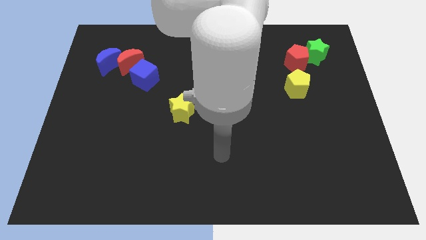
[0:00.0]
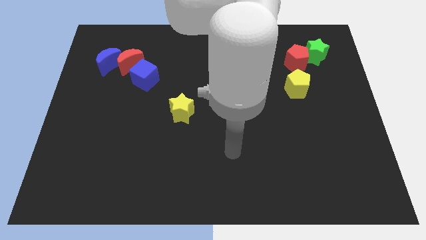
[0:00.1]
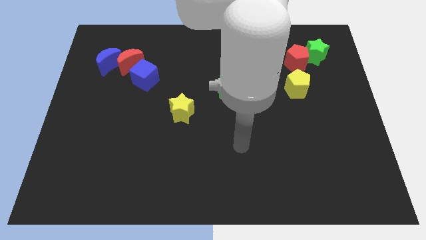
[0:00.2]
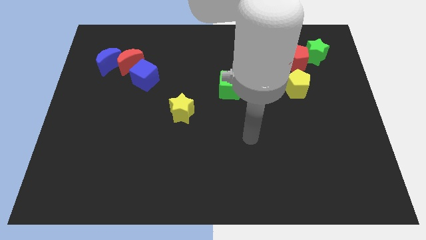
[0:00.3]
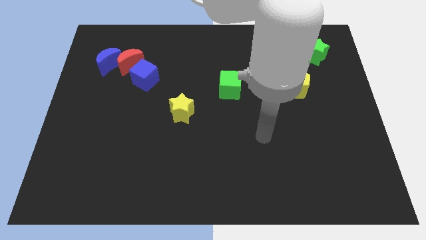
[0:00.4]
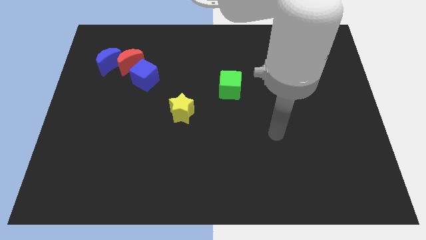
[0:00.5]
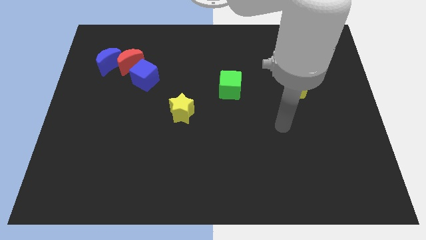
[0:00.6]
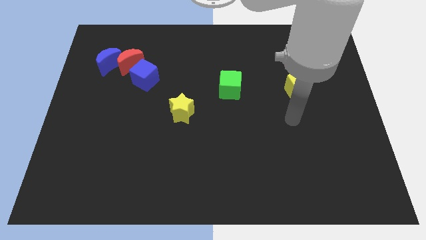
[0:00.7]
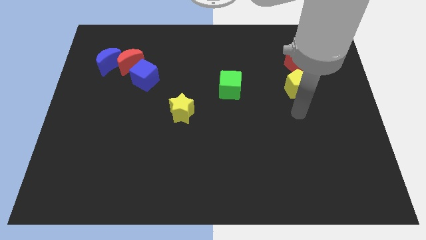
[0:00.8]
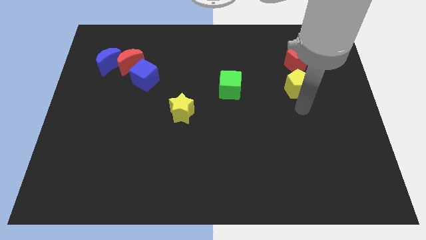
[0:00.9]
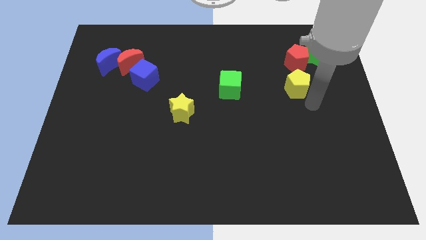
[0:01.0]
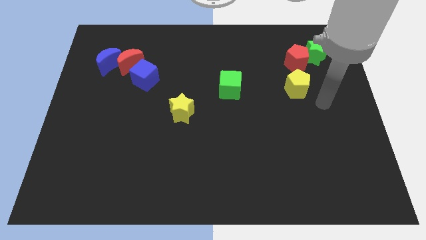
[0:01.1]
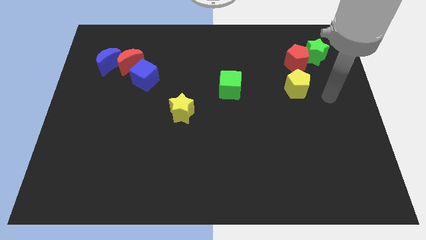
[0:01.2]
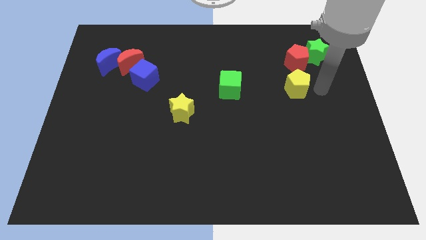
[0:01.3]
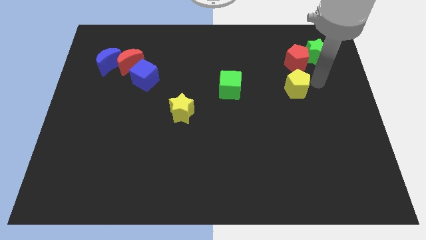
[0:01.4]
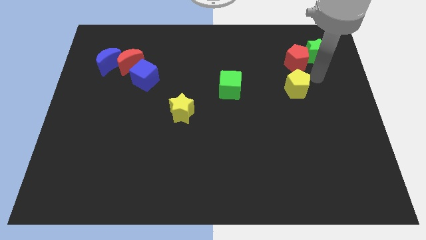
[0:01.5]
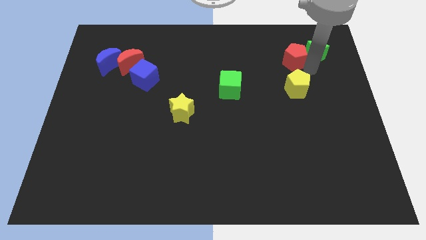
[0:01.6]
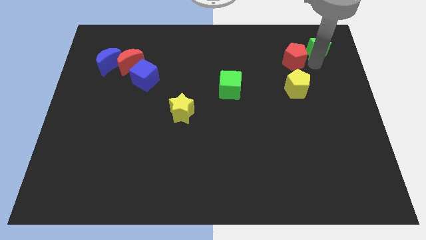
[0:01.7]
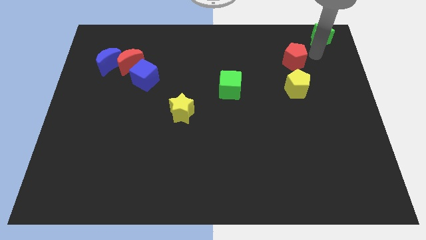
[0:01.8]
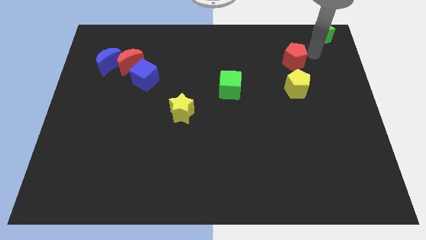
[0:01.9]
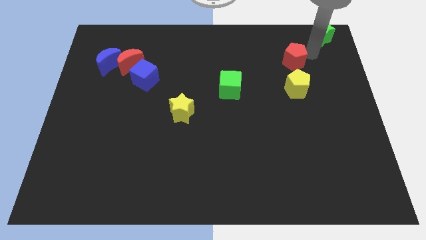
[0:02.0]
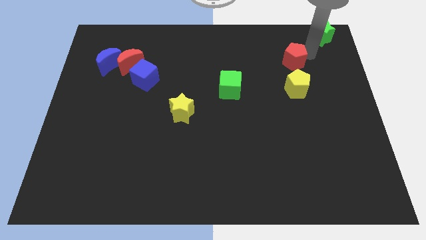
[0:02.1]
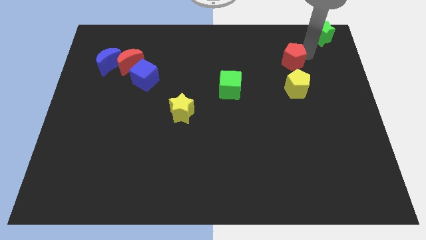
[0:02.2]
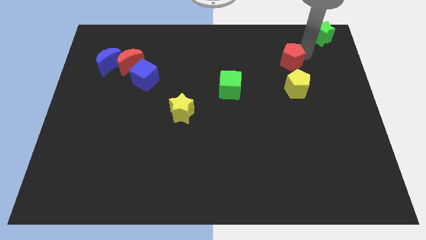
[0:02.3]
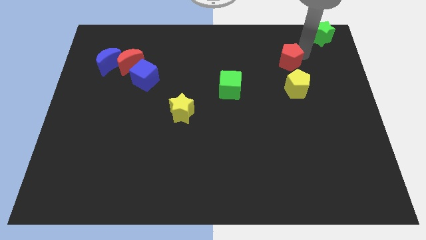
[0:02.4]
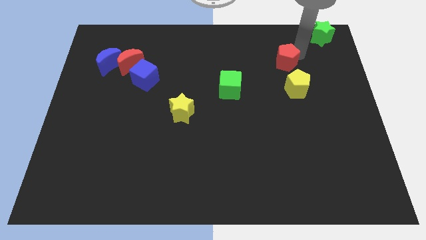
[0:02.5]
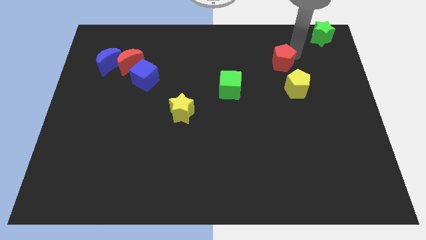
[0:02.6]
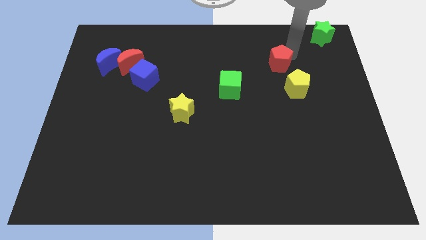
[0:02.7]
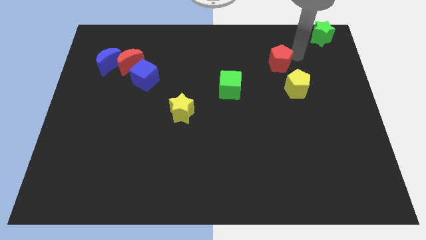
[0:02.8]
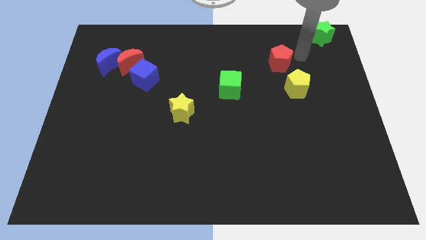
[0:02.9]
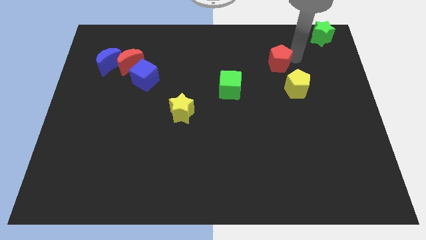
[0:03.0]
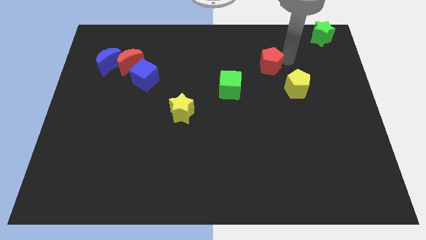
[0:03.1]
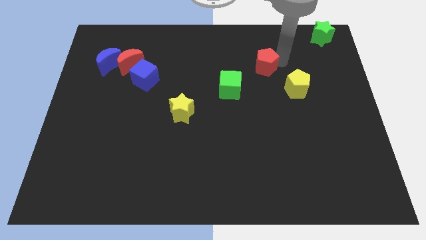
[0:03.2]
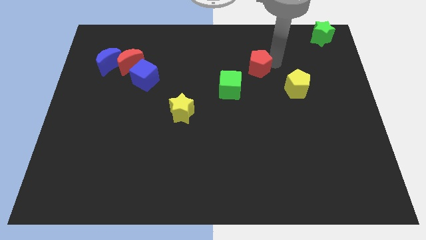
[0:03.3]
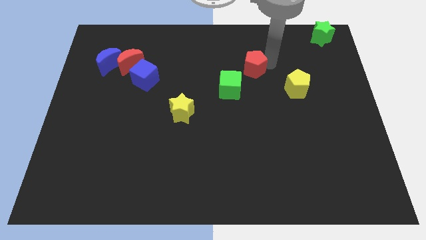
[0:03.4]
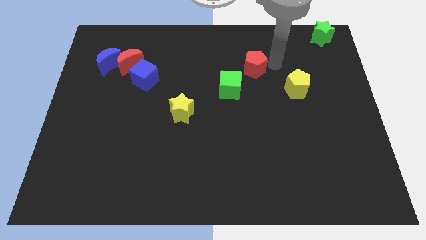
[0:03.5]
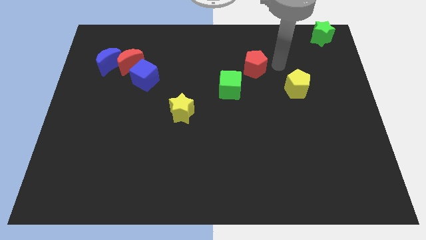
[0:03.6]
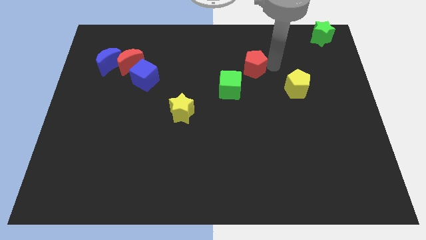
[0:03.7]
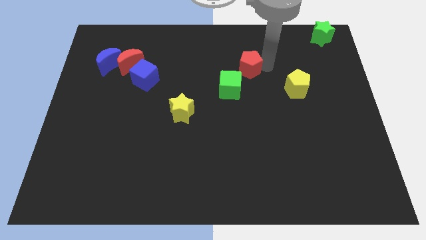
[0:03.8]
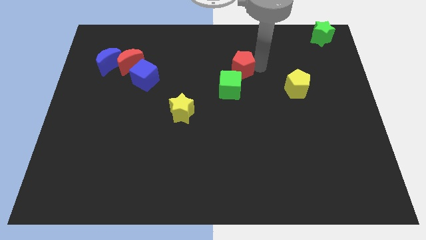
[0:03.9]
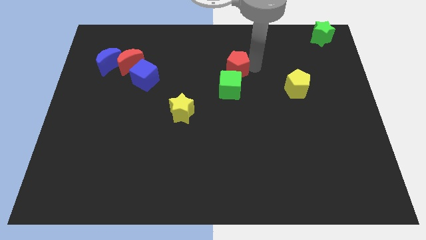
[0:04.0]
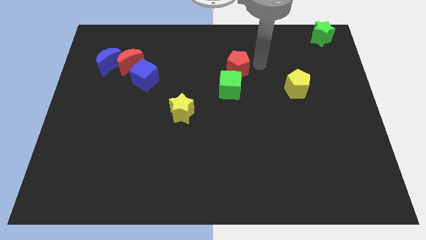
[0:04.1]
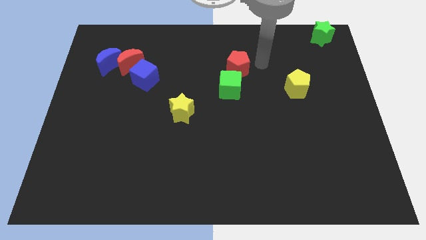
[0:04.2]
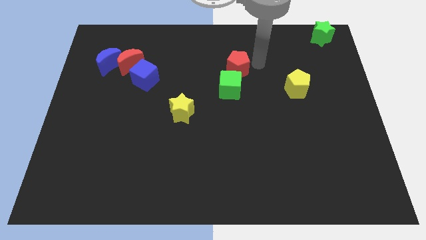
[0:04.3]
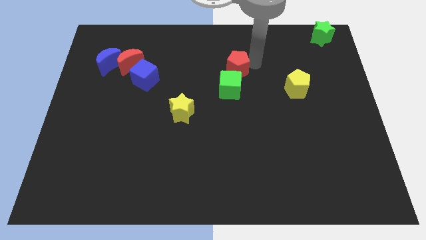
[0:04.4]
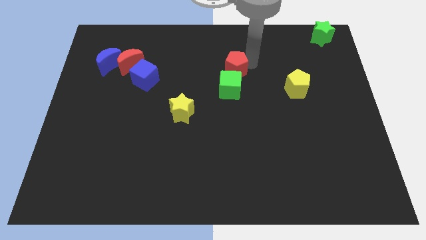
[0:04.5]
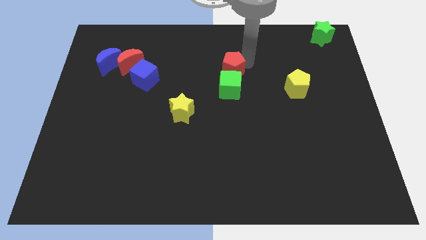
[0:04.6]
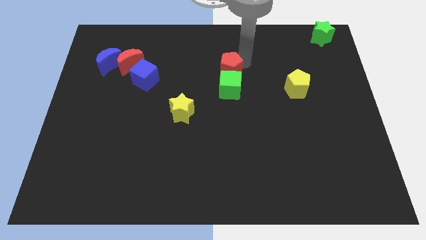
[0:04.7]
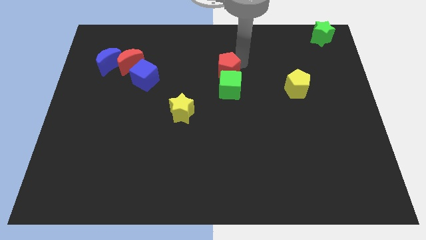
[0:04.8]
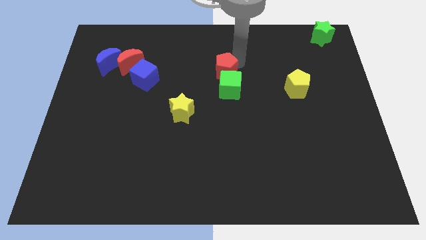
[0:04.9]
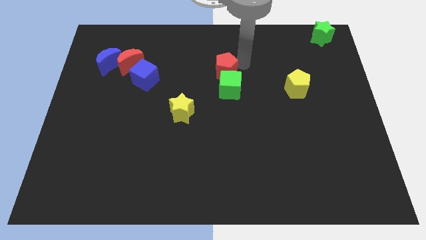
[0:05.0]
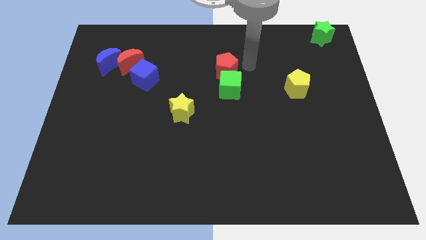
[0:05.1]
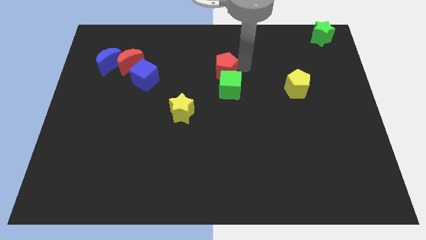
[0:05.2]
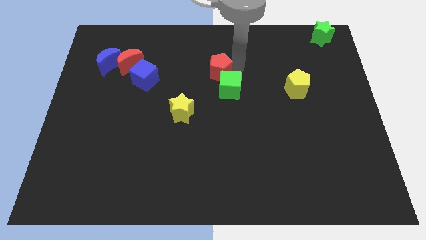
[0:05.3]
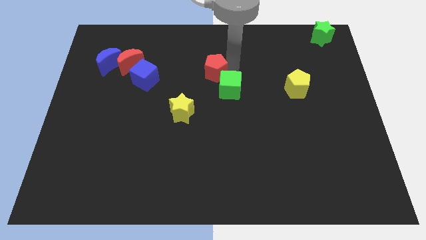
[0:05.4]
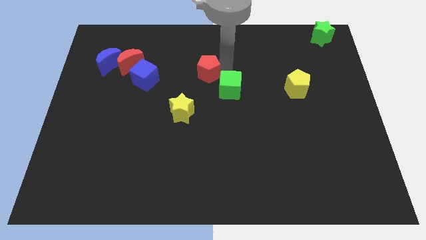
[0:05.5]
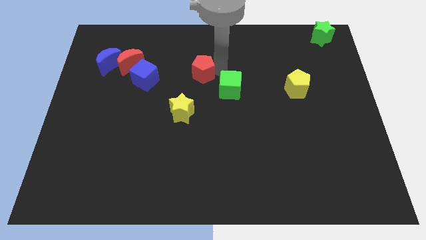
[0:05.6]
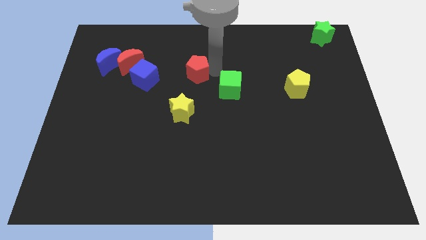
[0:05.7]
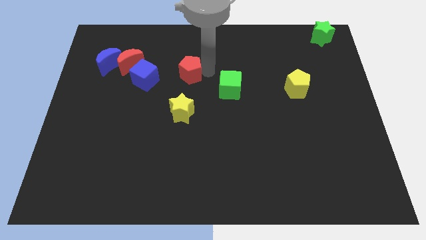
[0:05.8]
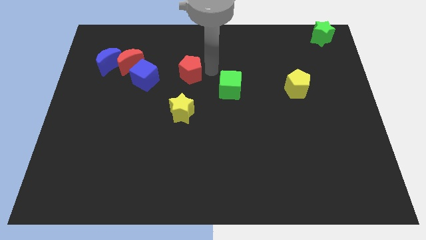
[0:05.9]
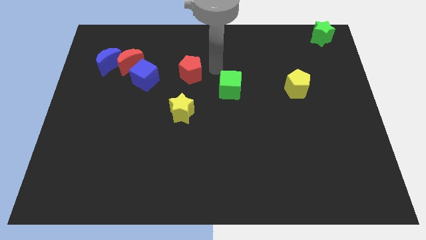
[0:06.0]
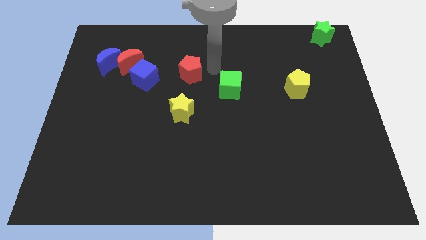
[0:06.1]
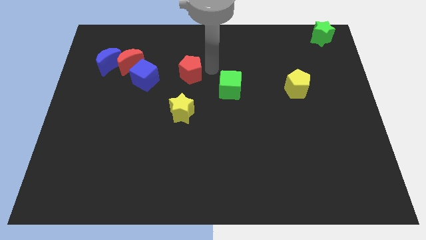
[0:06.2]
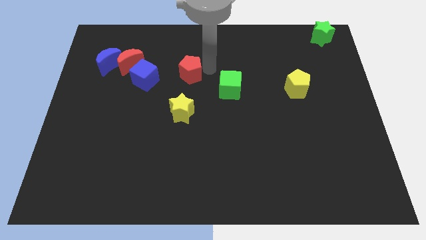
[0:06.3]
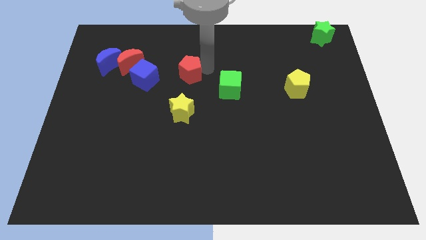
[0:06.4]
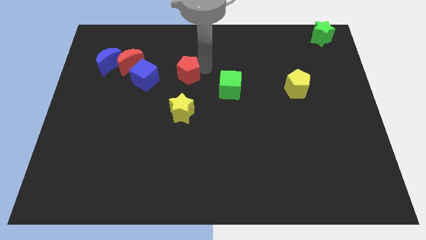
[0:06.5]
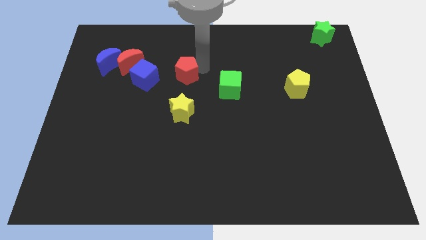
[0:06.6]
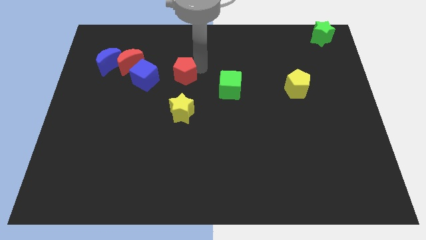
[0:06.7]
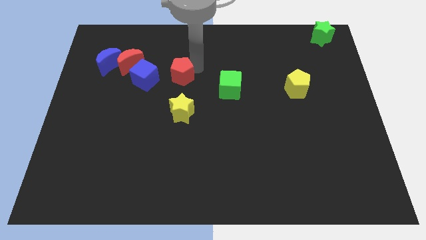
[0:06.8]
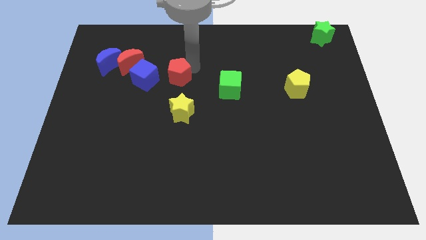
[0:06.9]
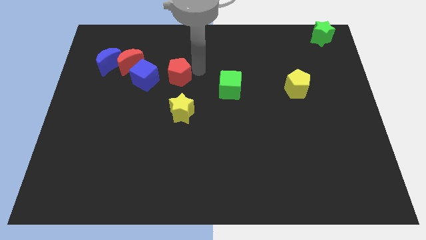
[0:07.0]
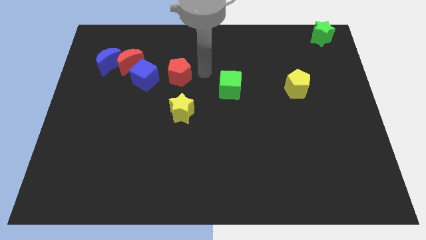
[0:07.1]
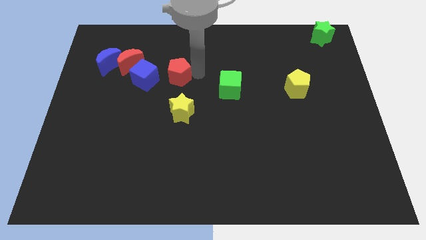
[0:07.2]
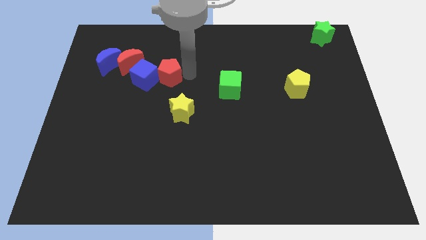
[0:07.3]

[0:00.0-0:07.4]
slide the red pentagon next to the blue cube

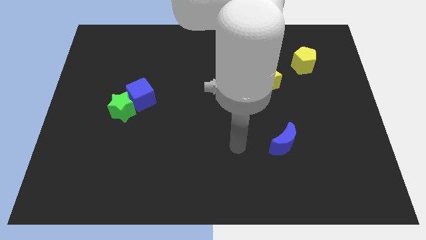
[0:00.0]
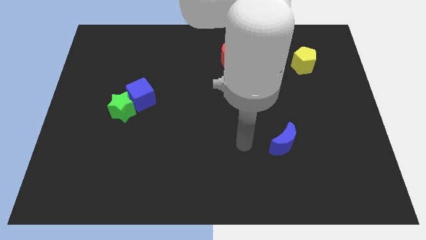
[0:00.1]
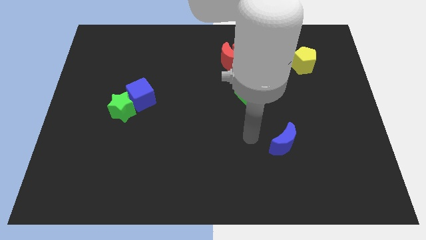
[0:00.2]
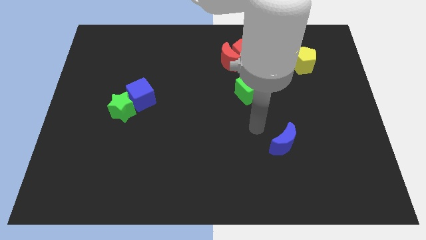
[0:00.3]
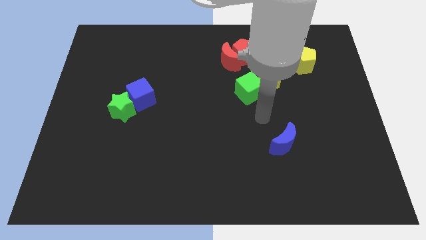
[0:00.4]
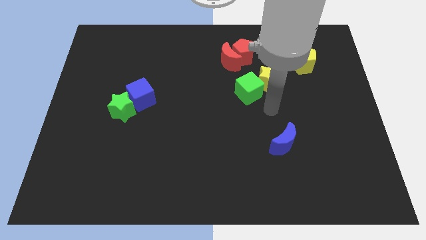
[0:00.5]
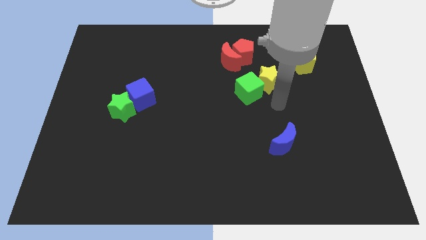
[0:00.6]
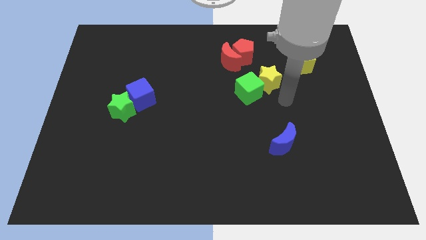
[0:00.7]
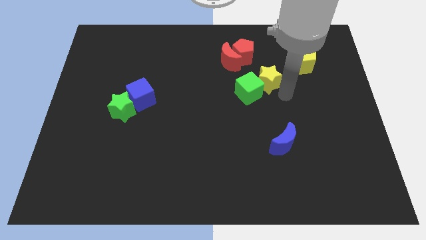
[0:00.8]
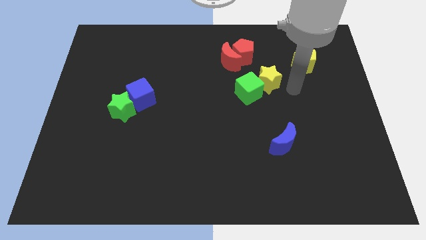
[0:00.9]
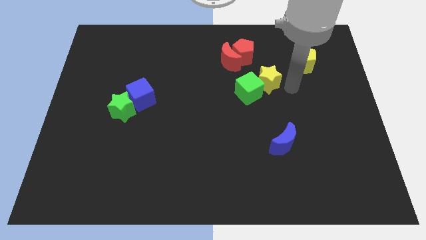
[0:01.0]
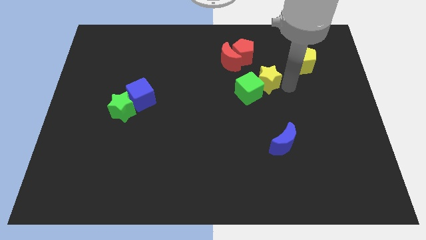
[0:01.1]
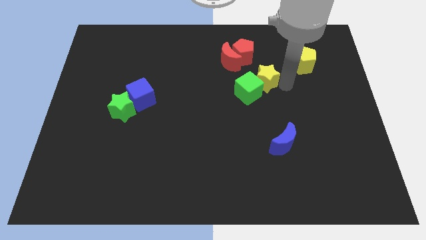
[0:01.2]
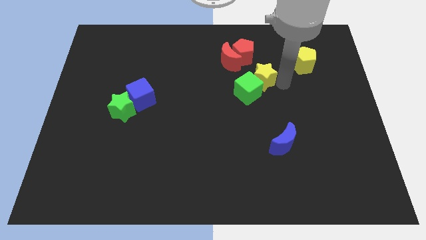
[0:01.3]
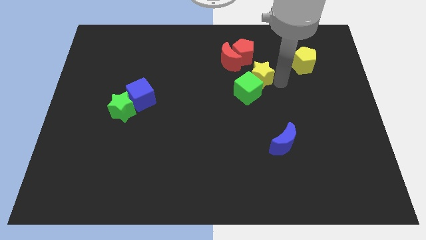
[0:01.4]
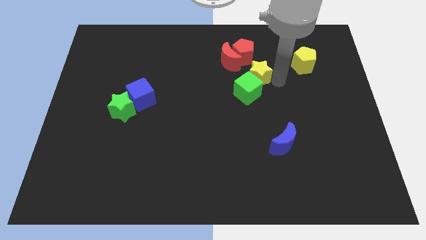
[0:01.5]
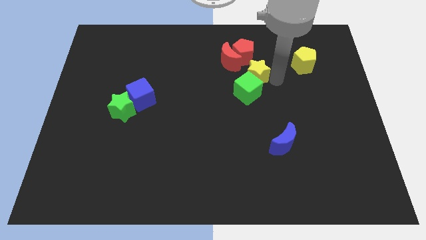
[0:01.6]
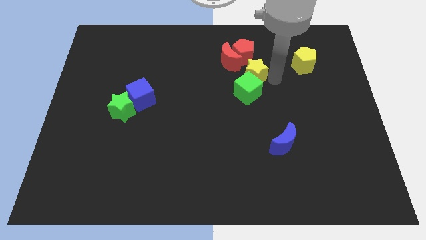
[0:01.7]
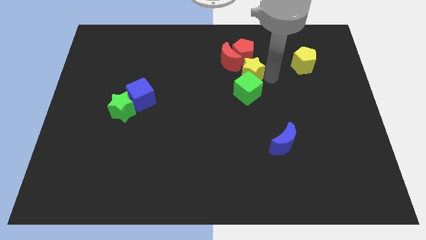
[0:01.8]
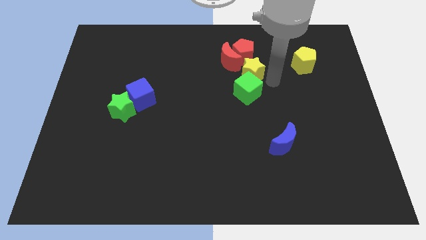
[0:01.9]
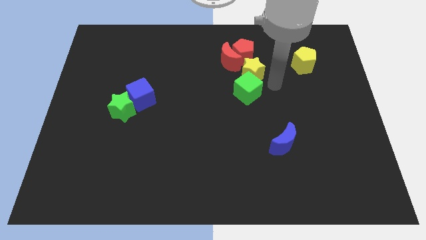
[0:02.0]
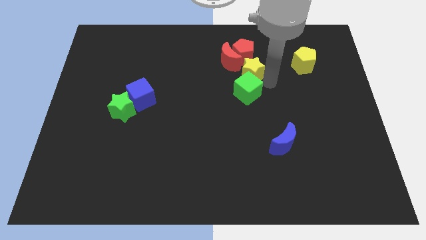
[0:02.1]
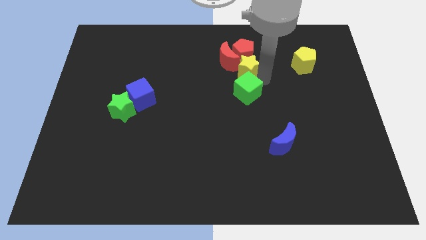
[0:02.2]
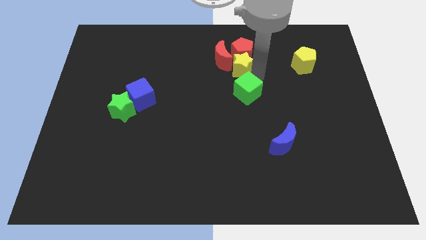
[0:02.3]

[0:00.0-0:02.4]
push the yellow star next to the red moon
